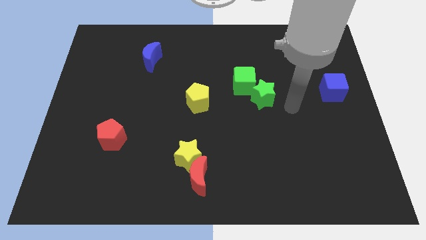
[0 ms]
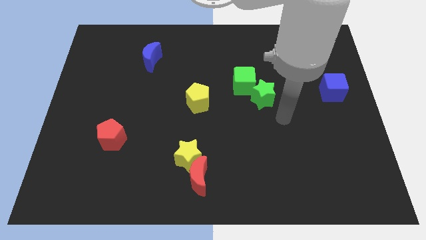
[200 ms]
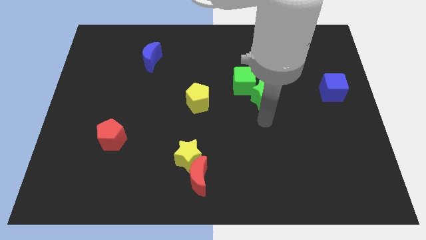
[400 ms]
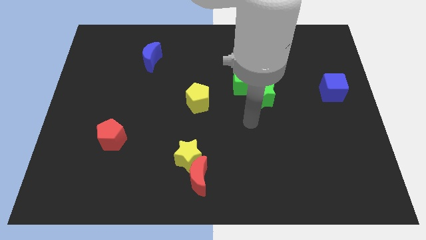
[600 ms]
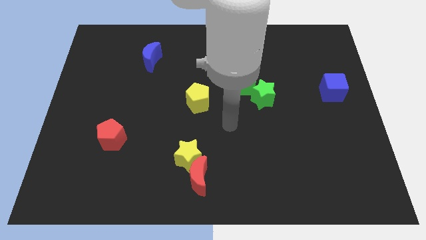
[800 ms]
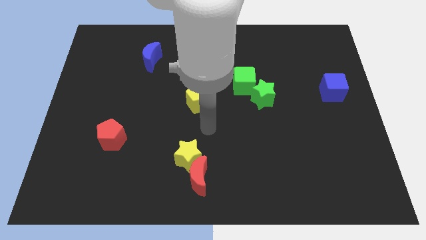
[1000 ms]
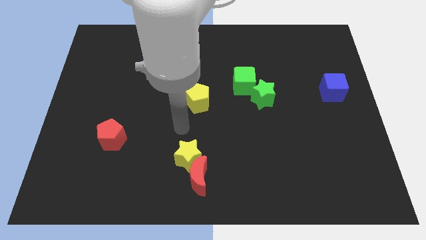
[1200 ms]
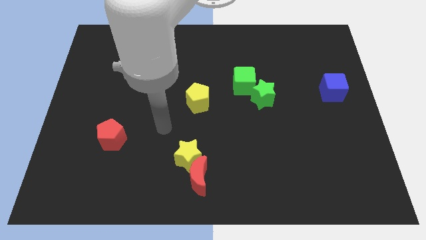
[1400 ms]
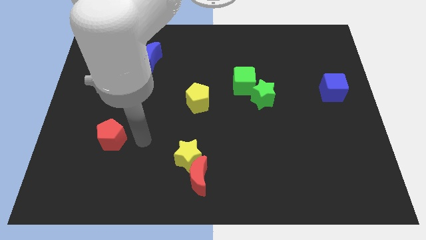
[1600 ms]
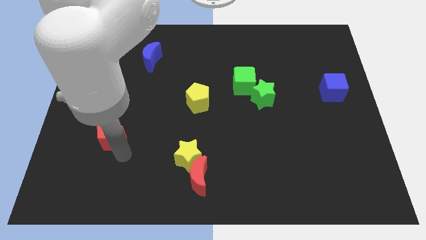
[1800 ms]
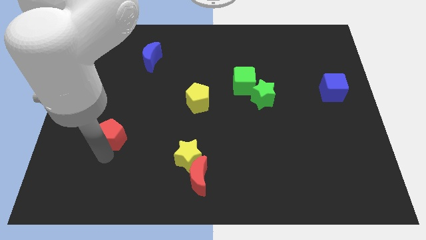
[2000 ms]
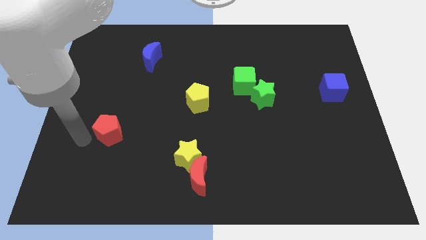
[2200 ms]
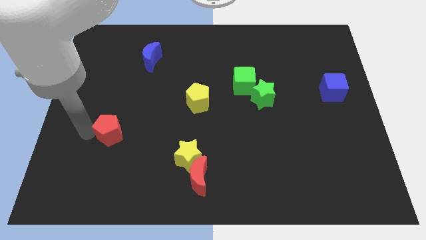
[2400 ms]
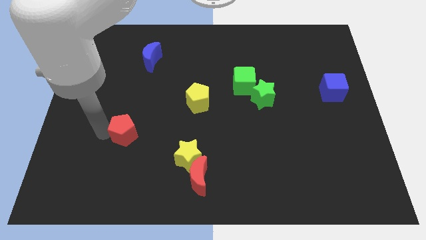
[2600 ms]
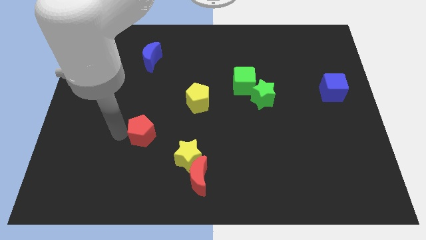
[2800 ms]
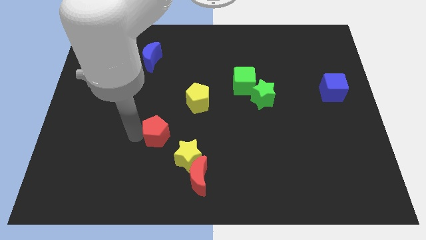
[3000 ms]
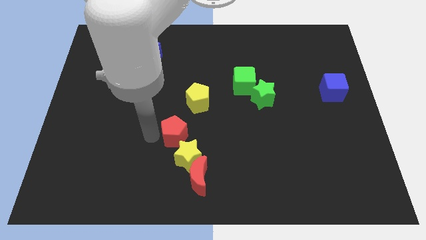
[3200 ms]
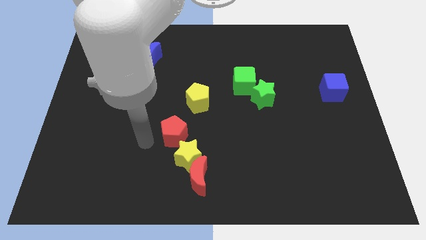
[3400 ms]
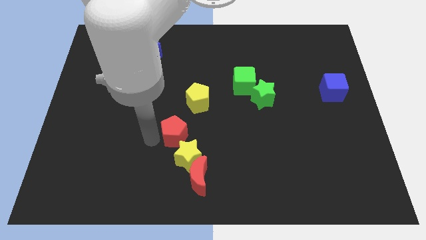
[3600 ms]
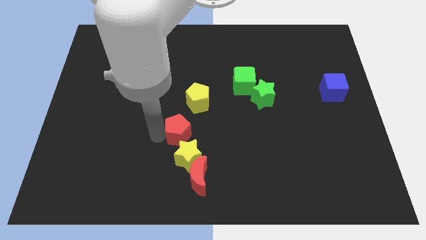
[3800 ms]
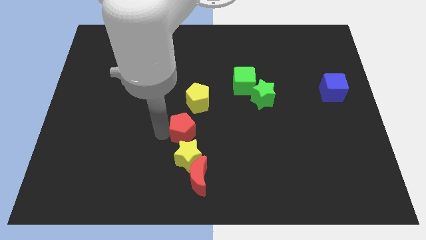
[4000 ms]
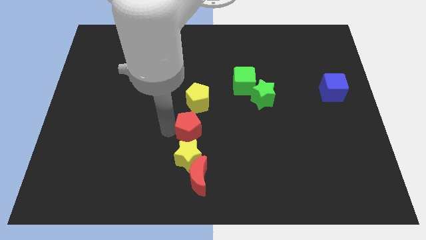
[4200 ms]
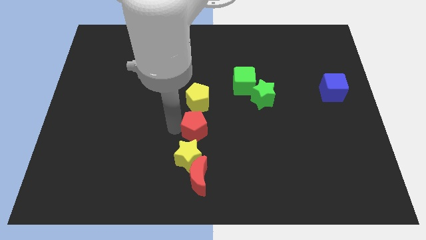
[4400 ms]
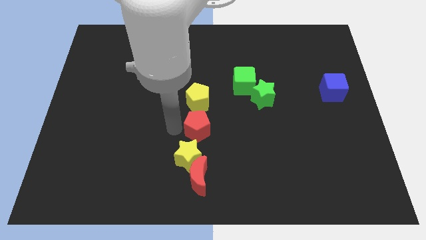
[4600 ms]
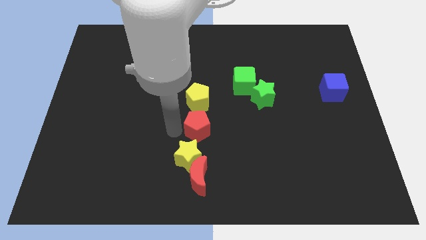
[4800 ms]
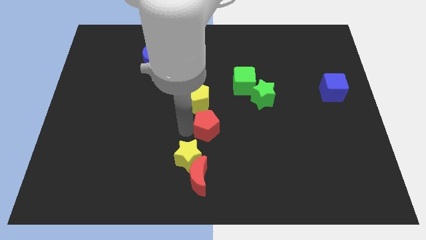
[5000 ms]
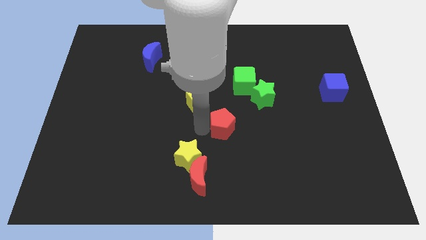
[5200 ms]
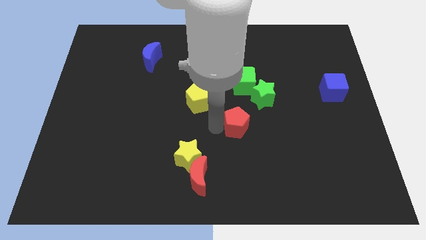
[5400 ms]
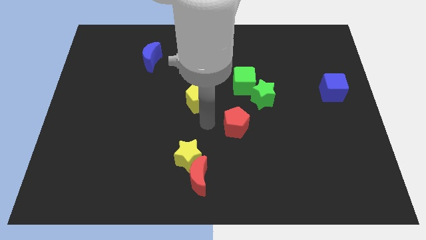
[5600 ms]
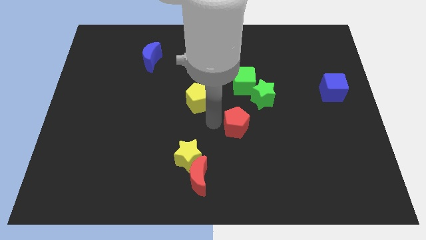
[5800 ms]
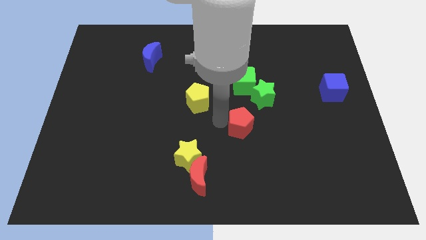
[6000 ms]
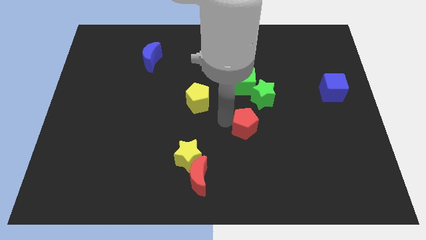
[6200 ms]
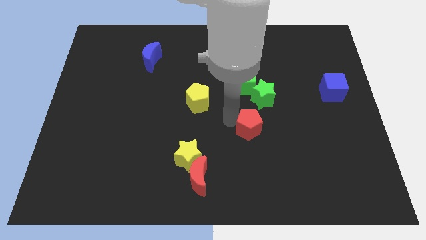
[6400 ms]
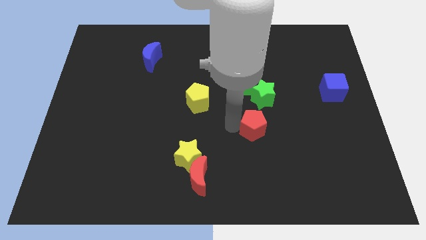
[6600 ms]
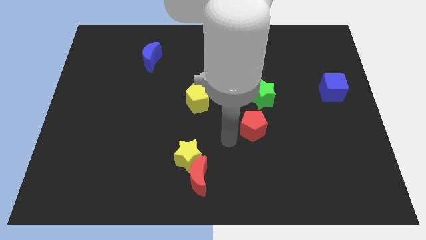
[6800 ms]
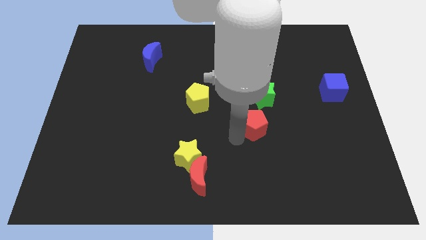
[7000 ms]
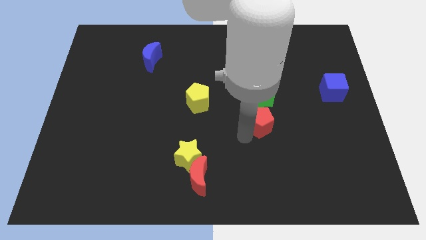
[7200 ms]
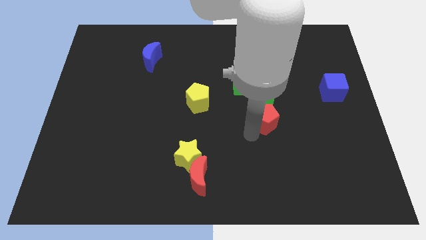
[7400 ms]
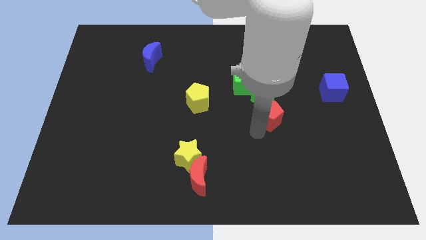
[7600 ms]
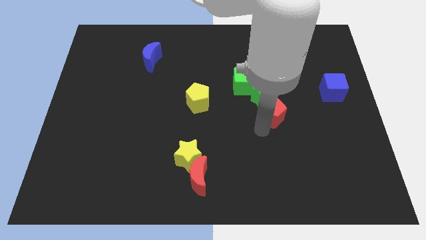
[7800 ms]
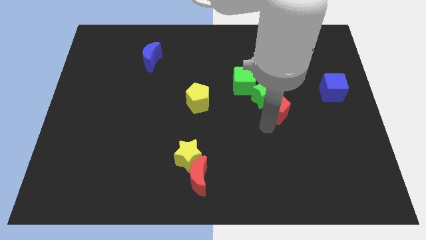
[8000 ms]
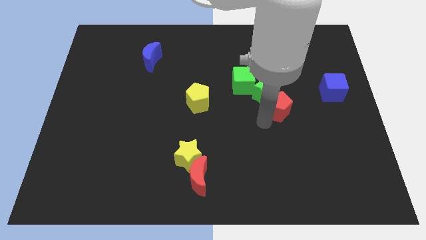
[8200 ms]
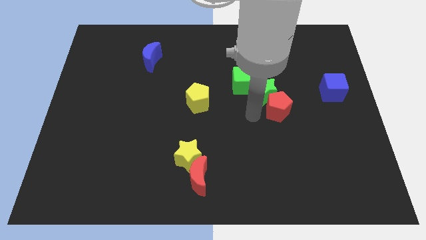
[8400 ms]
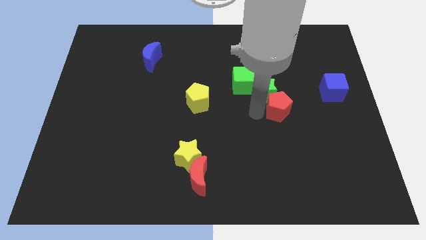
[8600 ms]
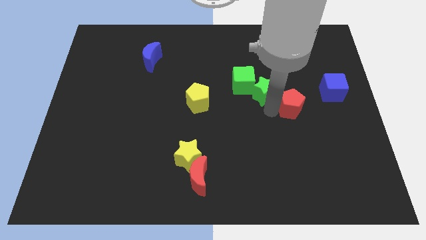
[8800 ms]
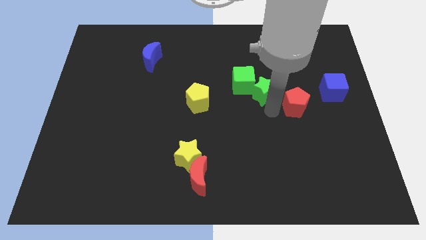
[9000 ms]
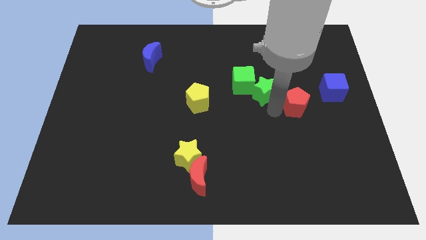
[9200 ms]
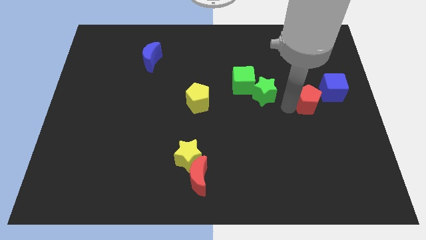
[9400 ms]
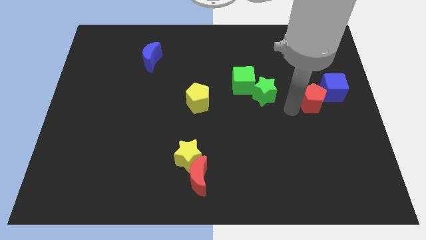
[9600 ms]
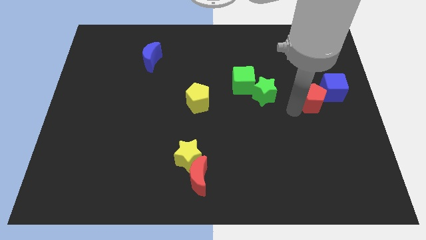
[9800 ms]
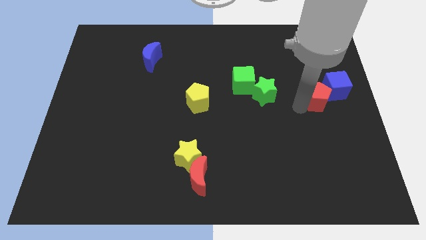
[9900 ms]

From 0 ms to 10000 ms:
slide the red pentagon next to the blue cube

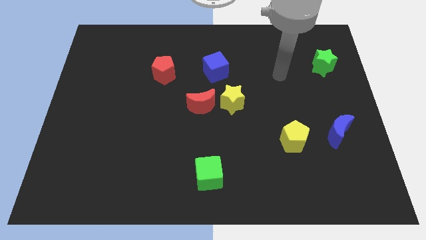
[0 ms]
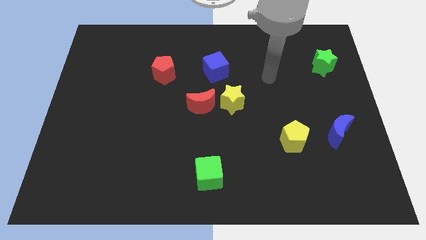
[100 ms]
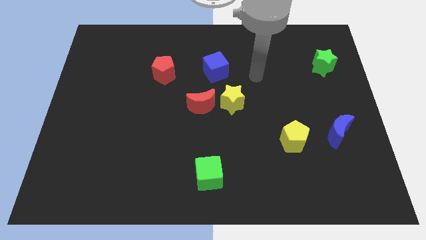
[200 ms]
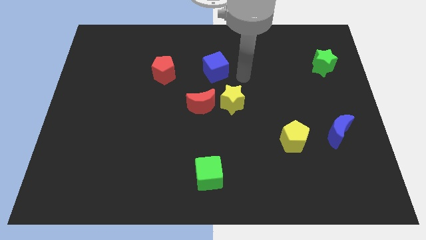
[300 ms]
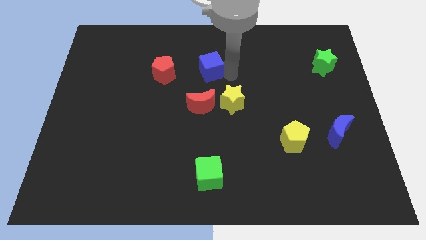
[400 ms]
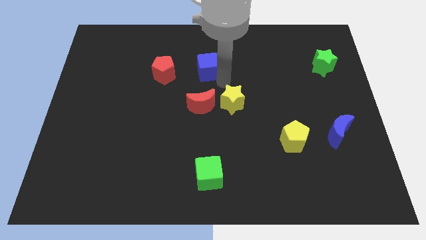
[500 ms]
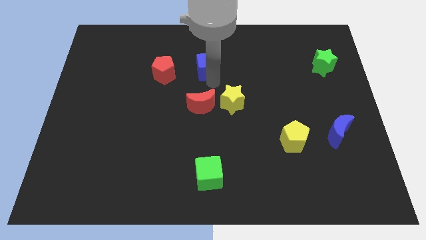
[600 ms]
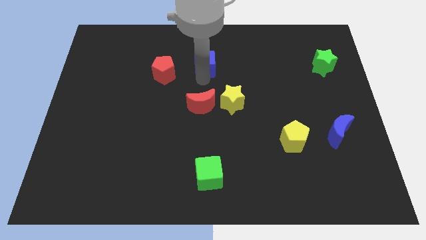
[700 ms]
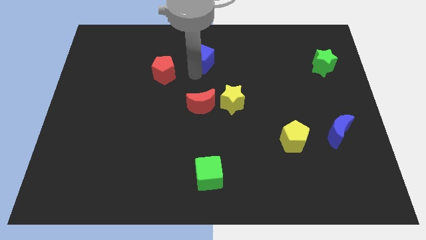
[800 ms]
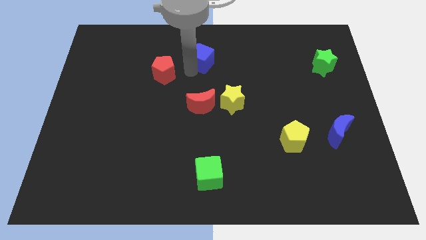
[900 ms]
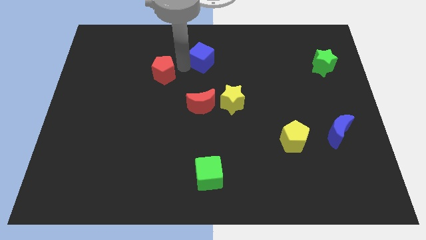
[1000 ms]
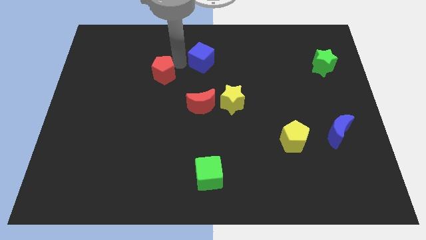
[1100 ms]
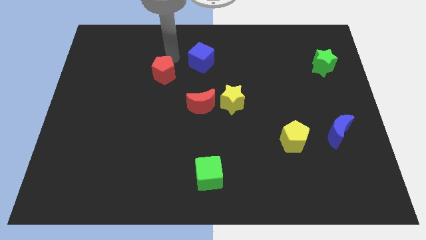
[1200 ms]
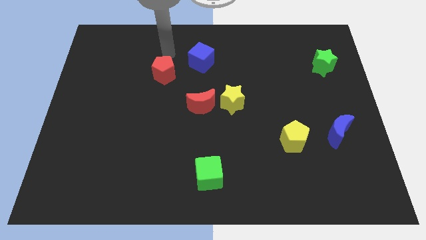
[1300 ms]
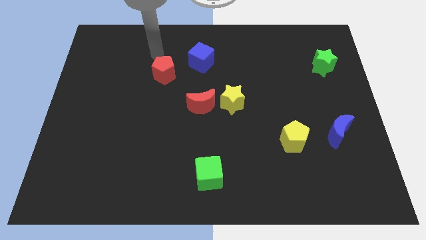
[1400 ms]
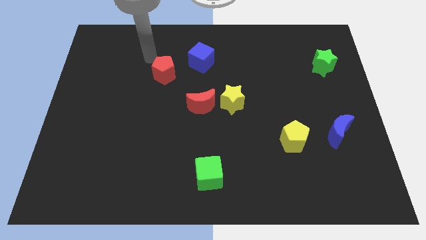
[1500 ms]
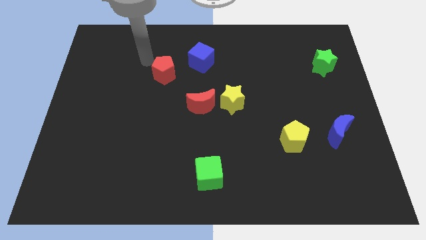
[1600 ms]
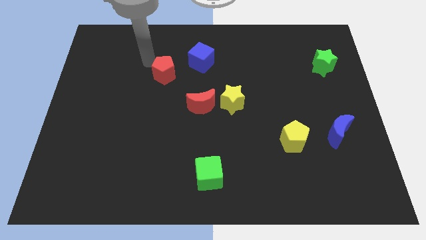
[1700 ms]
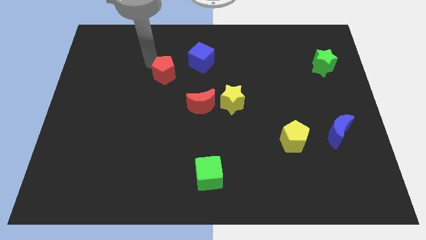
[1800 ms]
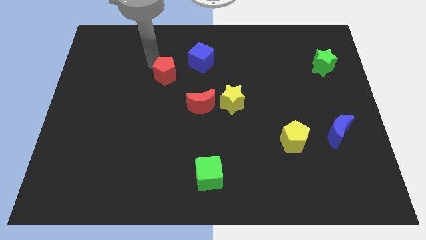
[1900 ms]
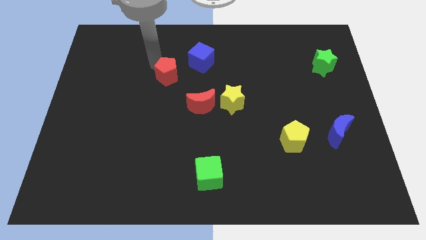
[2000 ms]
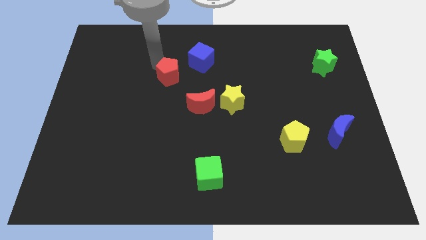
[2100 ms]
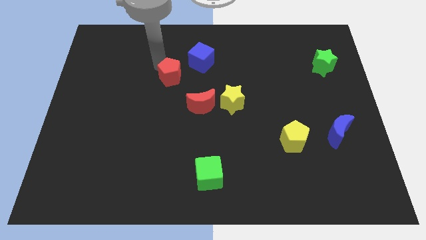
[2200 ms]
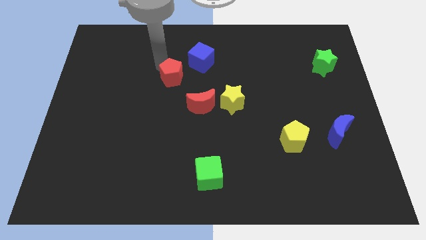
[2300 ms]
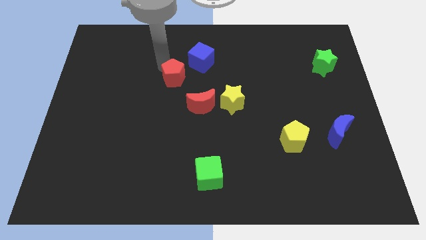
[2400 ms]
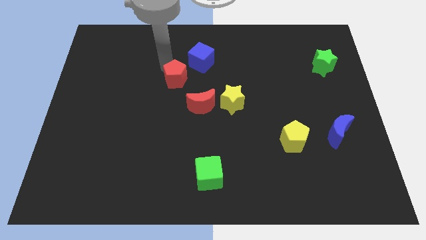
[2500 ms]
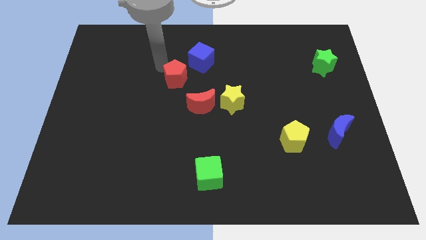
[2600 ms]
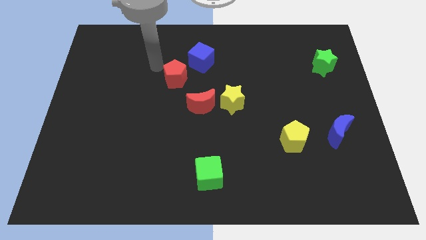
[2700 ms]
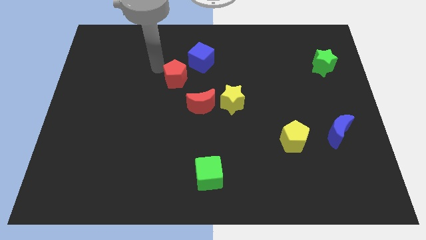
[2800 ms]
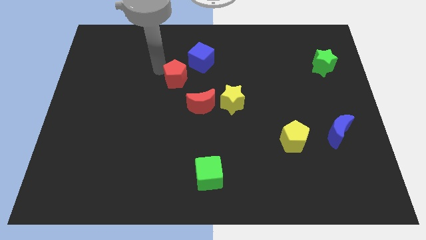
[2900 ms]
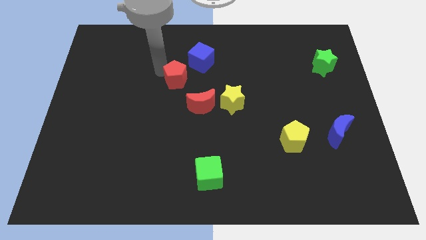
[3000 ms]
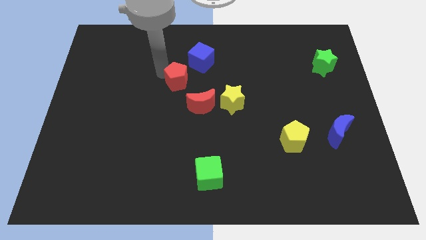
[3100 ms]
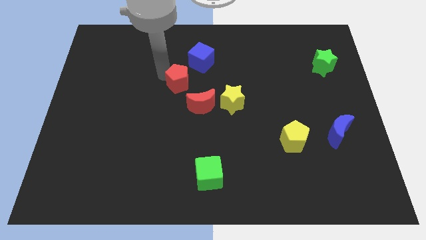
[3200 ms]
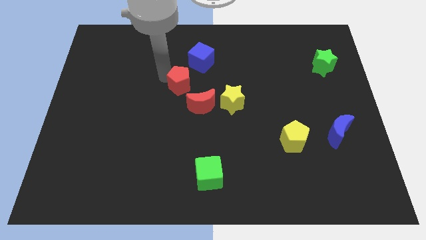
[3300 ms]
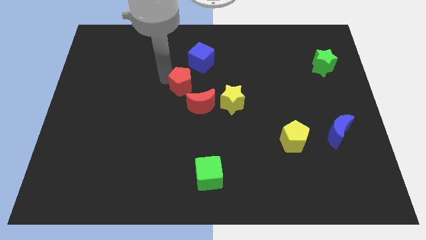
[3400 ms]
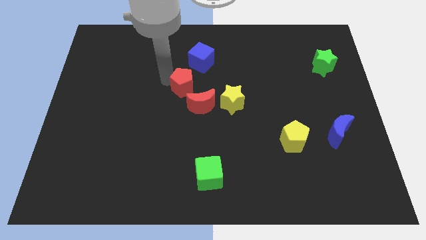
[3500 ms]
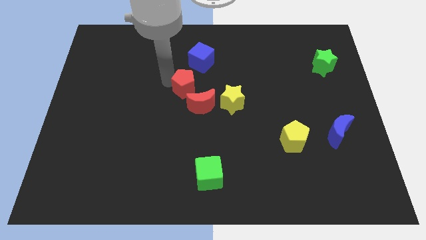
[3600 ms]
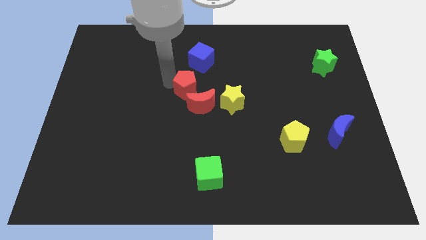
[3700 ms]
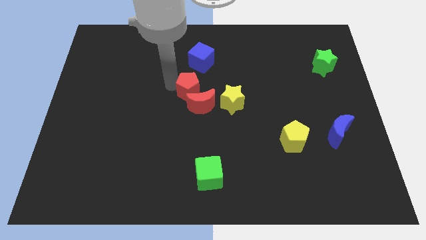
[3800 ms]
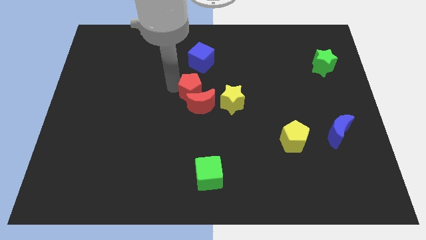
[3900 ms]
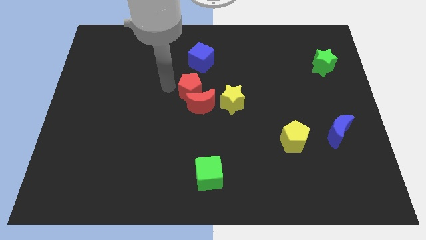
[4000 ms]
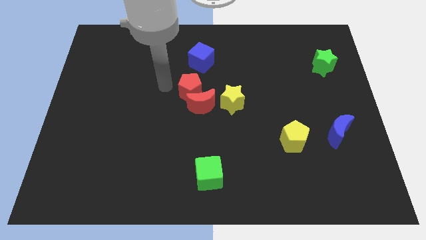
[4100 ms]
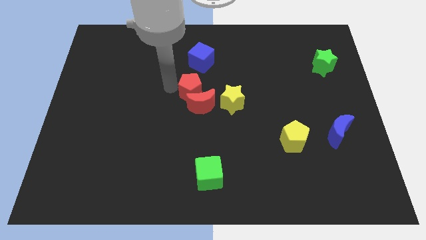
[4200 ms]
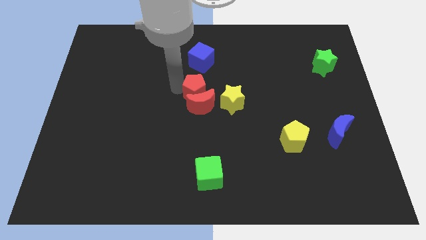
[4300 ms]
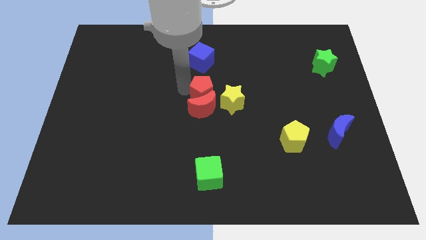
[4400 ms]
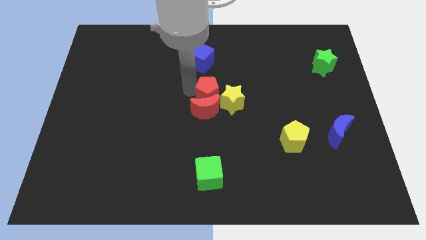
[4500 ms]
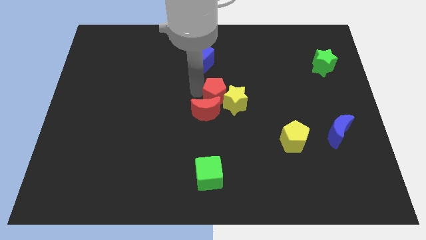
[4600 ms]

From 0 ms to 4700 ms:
put the red pentagon towards the yellow star
